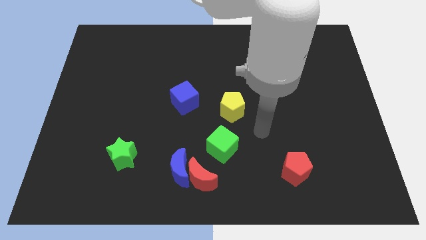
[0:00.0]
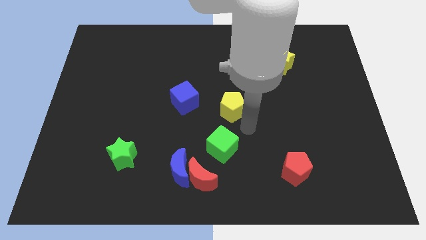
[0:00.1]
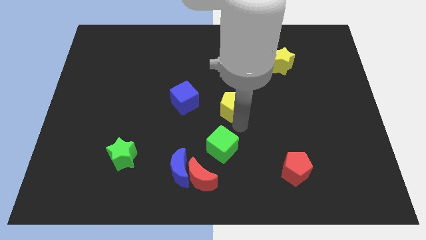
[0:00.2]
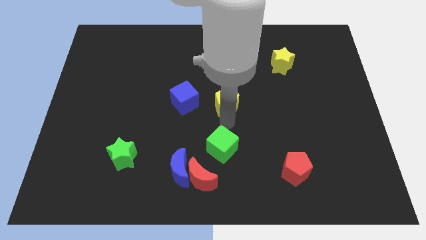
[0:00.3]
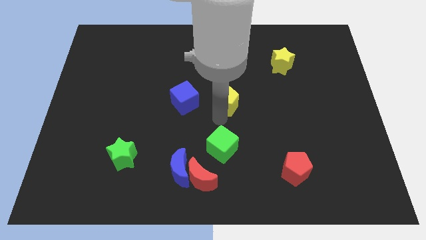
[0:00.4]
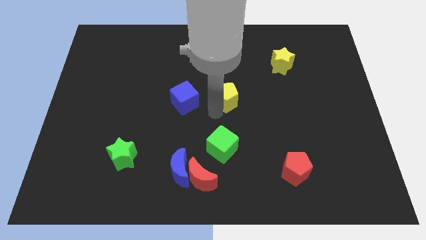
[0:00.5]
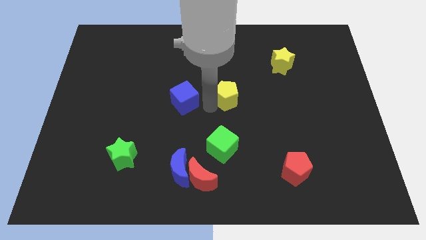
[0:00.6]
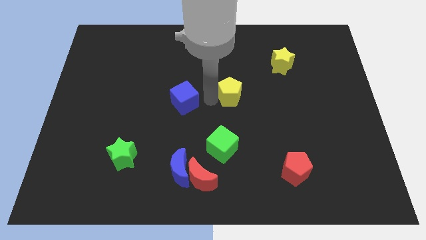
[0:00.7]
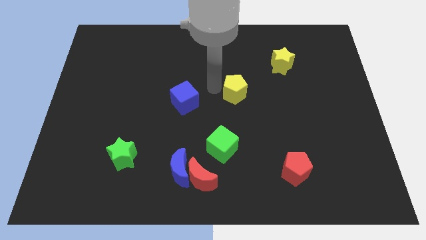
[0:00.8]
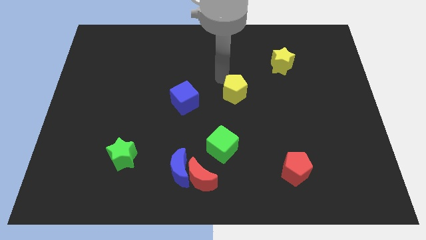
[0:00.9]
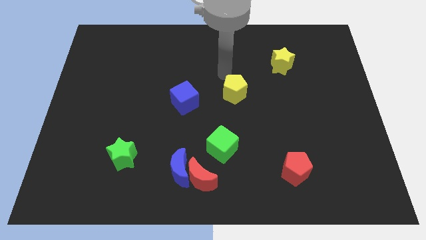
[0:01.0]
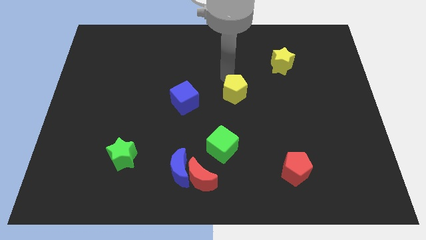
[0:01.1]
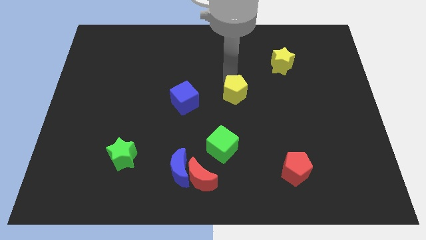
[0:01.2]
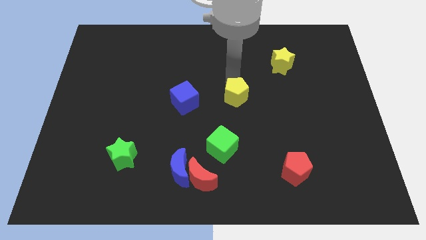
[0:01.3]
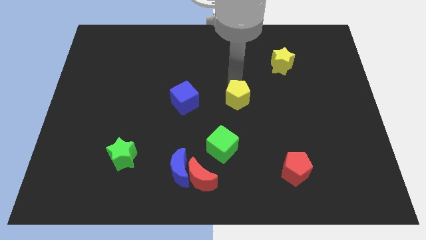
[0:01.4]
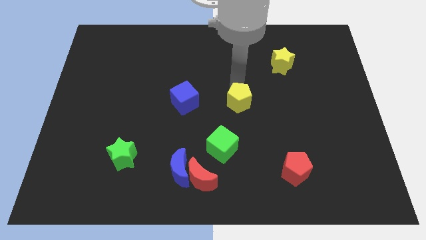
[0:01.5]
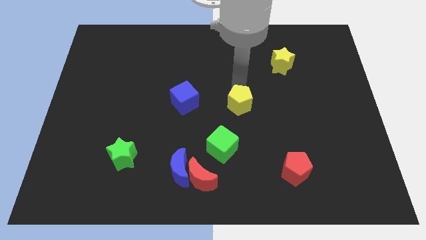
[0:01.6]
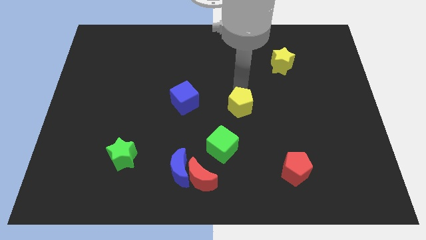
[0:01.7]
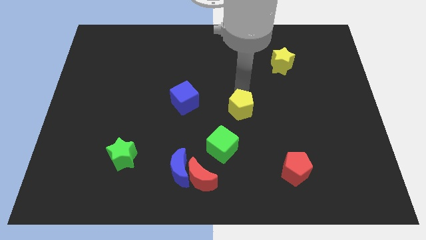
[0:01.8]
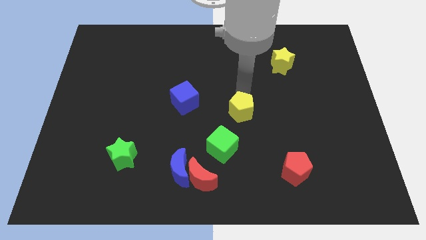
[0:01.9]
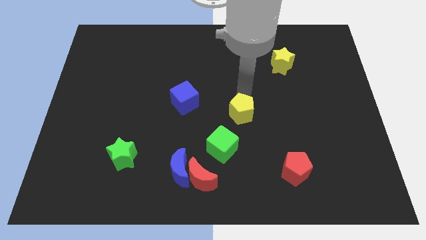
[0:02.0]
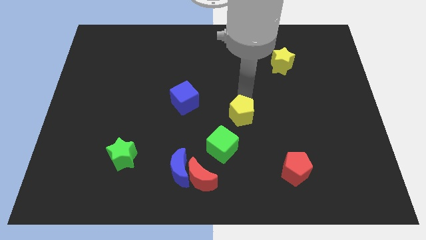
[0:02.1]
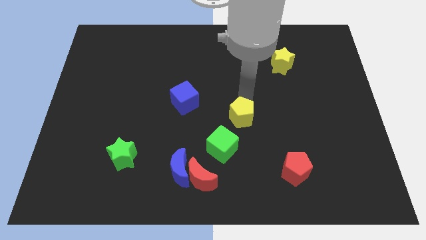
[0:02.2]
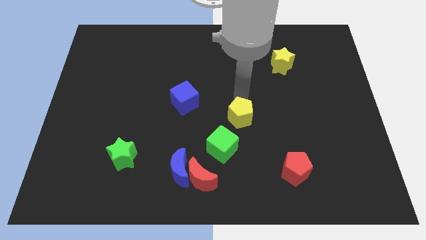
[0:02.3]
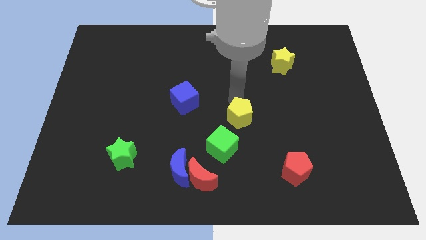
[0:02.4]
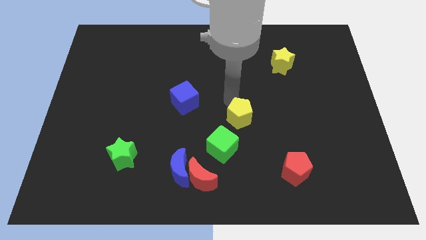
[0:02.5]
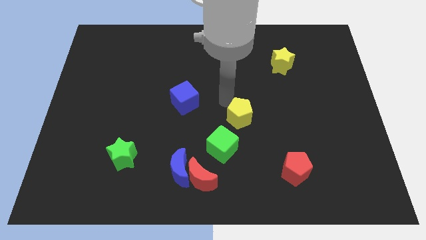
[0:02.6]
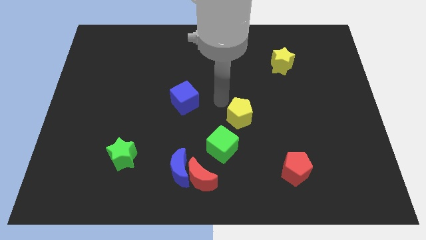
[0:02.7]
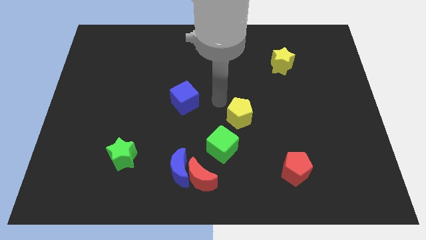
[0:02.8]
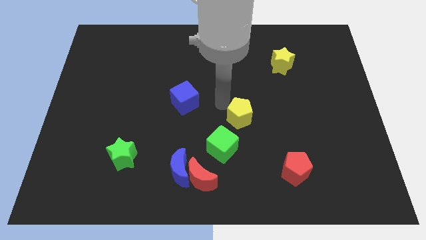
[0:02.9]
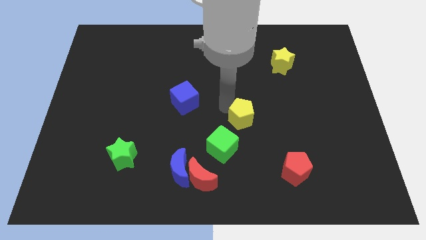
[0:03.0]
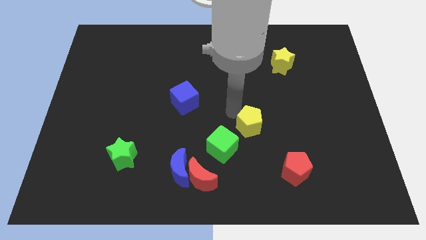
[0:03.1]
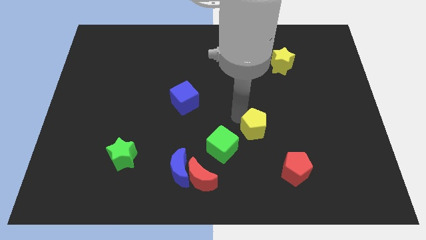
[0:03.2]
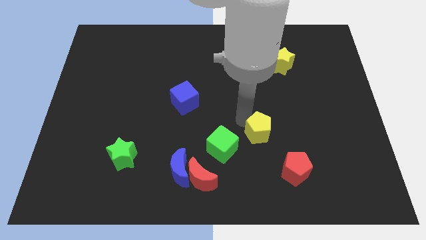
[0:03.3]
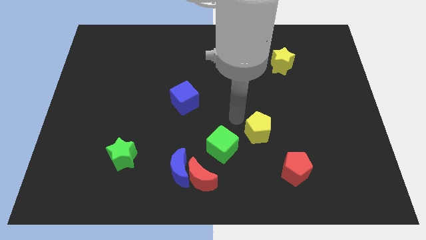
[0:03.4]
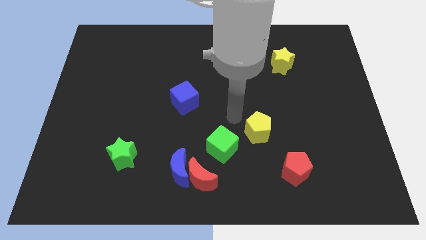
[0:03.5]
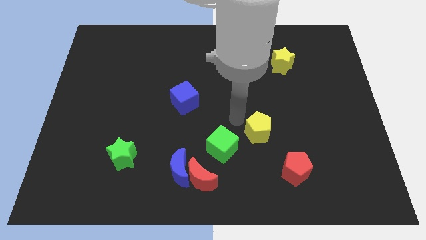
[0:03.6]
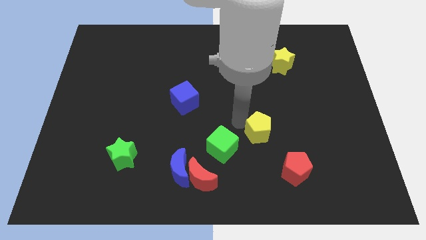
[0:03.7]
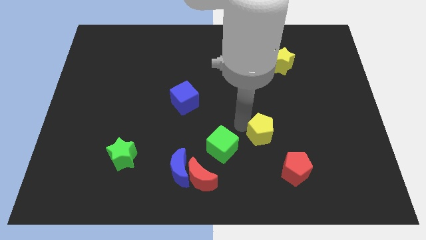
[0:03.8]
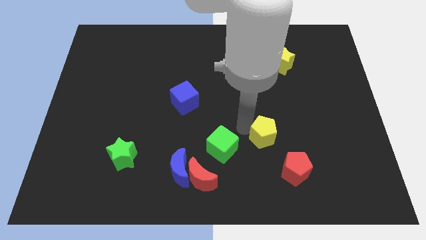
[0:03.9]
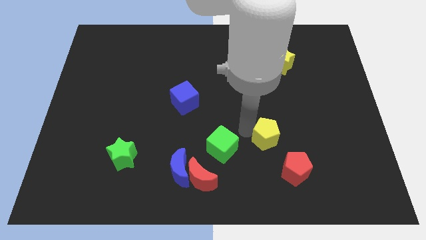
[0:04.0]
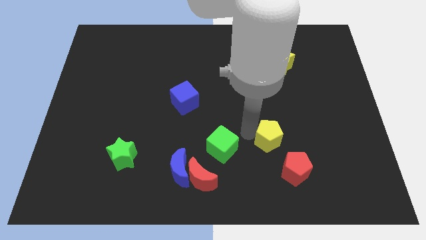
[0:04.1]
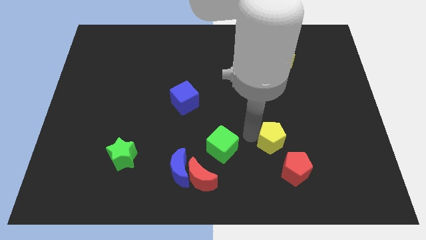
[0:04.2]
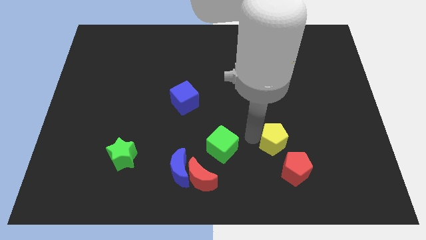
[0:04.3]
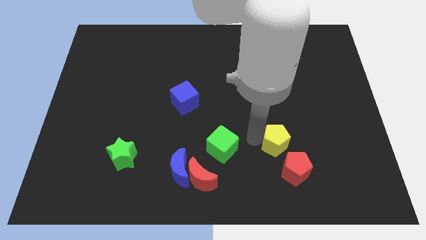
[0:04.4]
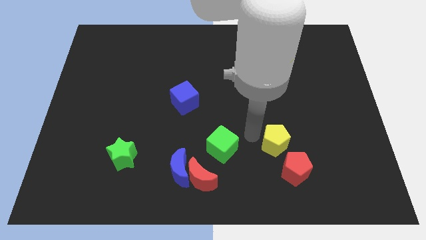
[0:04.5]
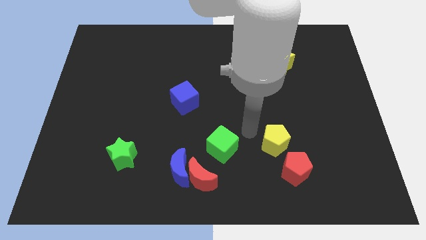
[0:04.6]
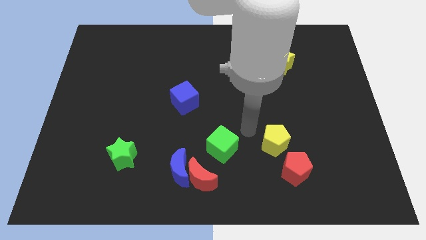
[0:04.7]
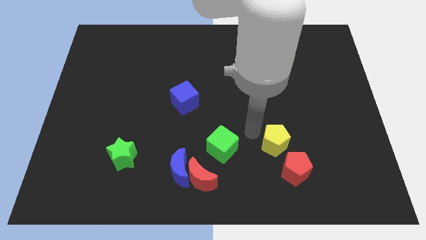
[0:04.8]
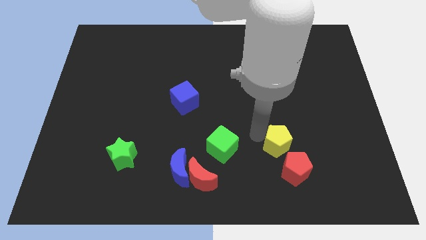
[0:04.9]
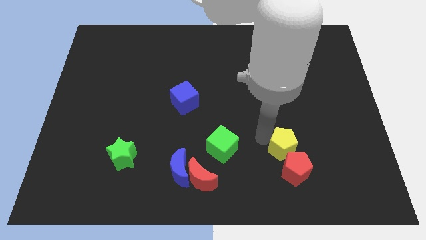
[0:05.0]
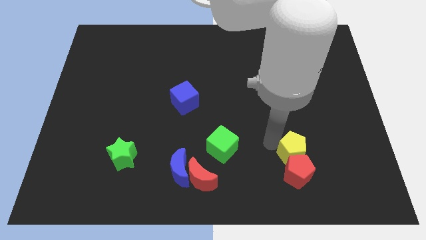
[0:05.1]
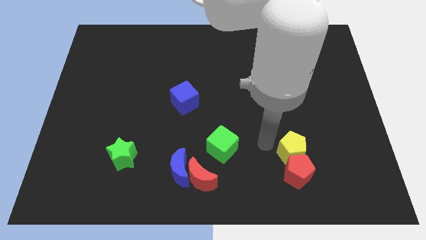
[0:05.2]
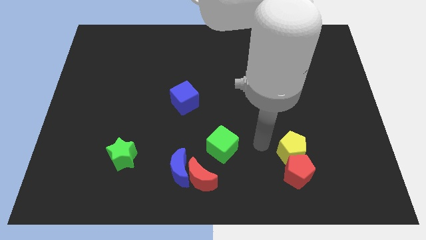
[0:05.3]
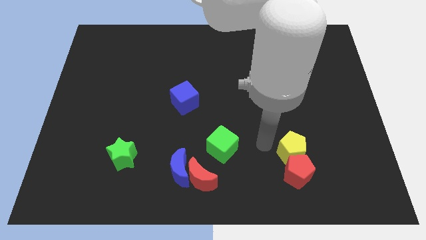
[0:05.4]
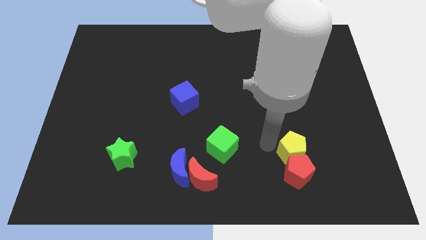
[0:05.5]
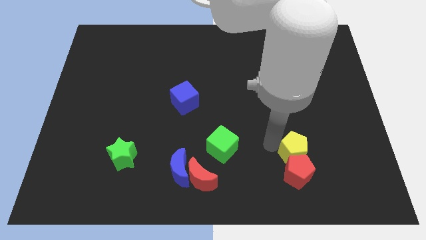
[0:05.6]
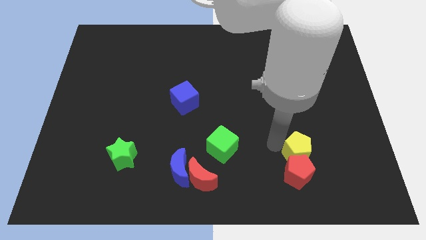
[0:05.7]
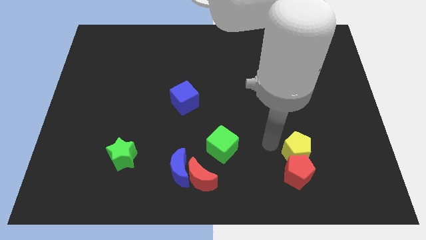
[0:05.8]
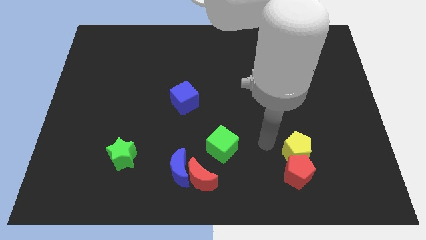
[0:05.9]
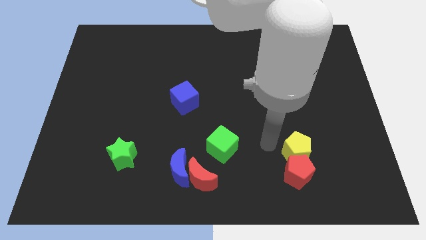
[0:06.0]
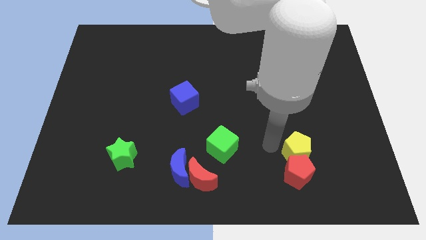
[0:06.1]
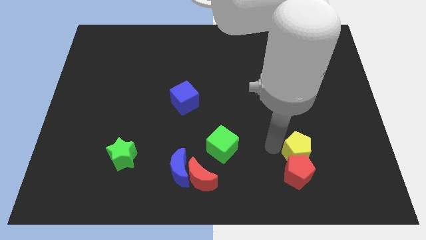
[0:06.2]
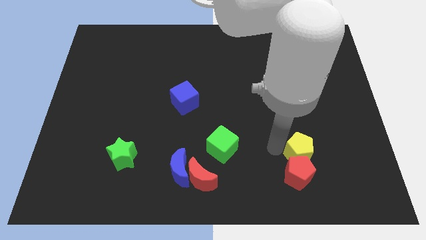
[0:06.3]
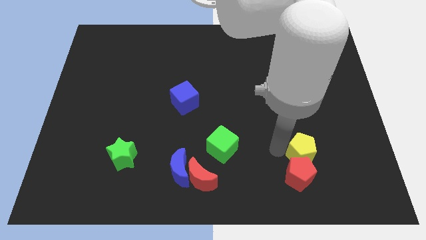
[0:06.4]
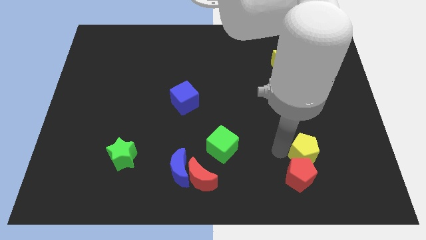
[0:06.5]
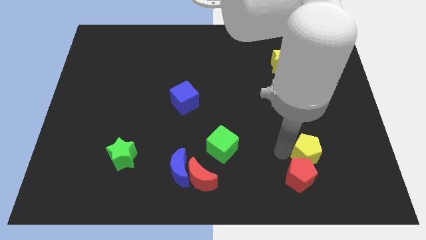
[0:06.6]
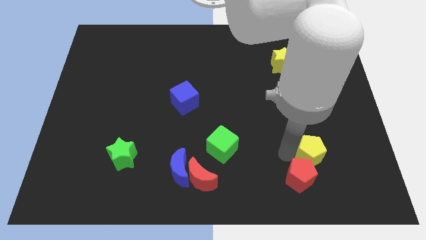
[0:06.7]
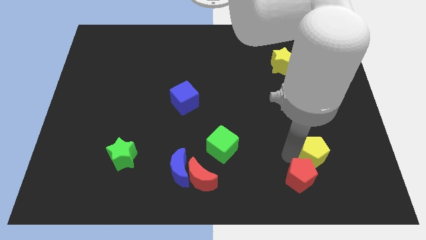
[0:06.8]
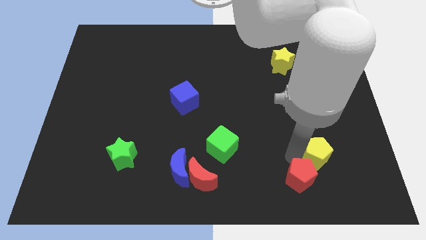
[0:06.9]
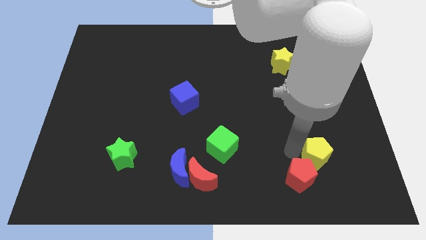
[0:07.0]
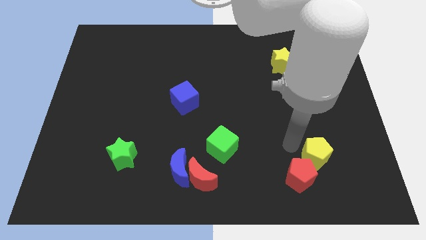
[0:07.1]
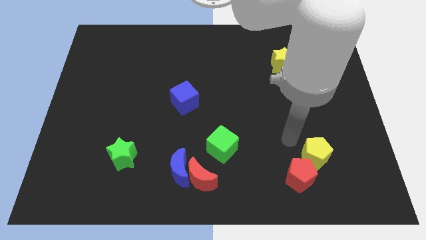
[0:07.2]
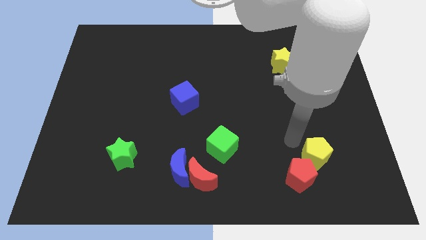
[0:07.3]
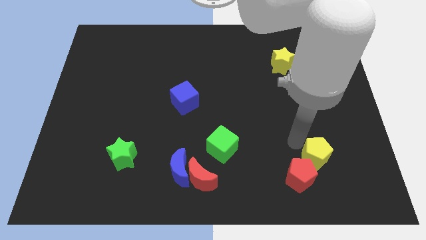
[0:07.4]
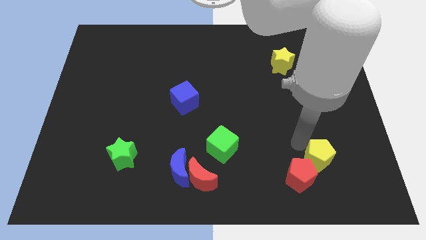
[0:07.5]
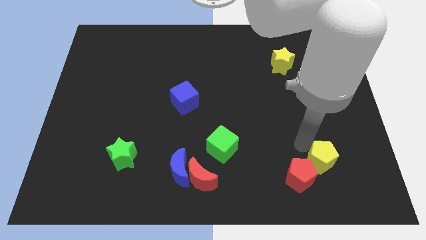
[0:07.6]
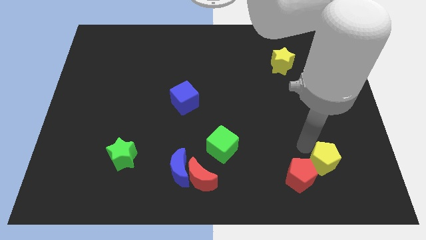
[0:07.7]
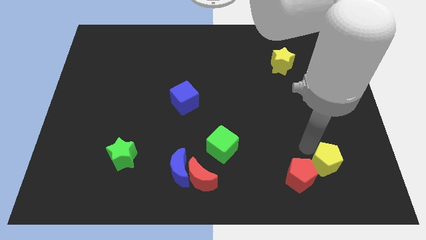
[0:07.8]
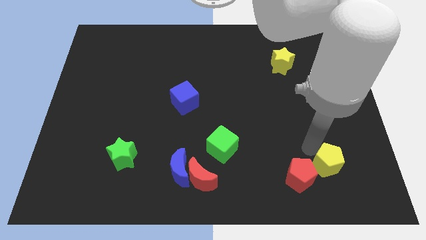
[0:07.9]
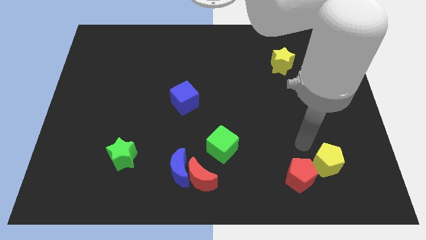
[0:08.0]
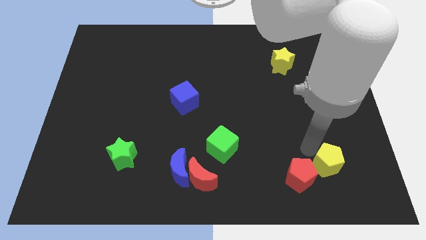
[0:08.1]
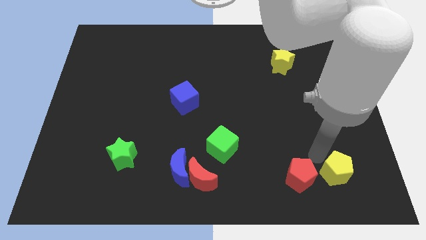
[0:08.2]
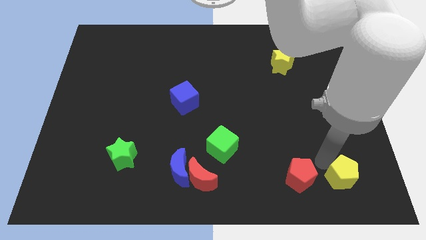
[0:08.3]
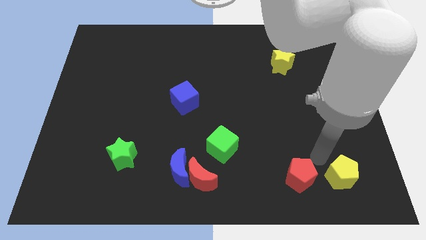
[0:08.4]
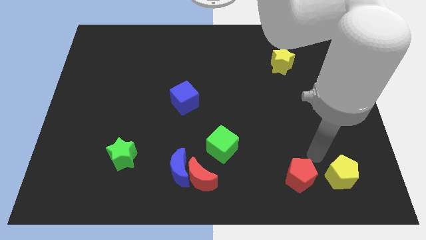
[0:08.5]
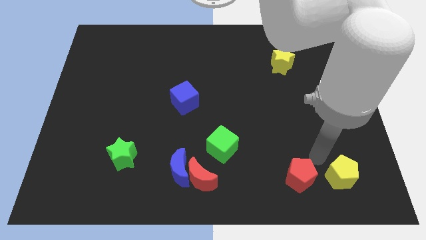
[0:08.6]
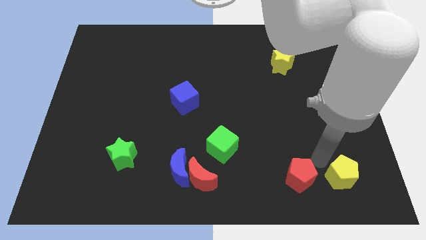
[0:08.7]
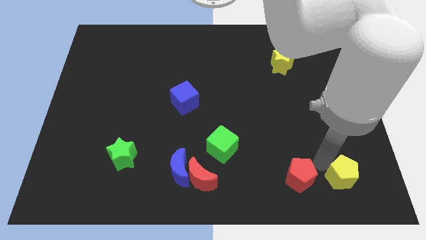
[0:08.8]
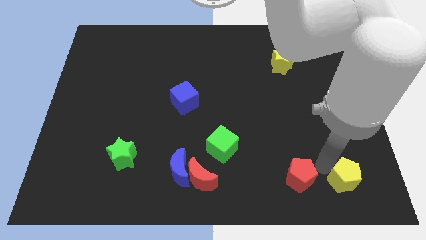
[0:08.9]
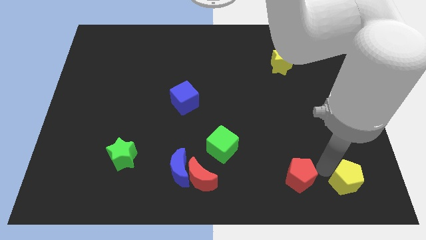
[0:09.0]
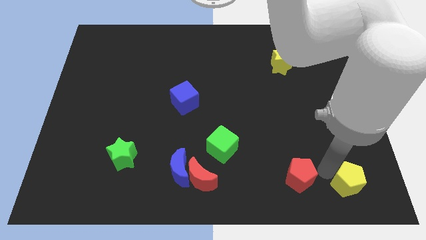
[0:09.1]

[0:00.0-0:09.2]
slide the yellow pentagon to the bottom right corner
